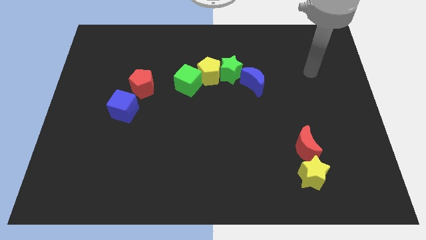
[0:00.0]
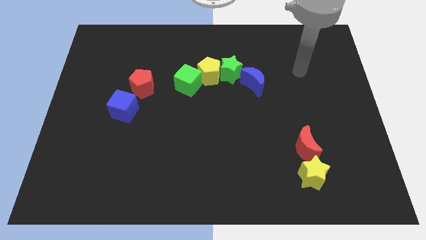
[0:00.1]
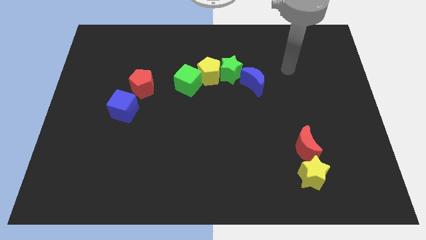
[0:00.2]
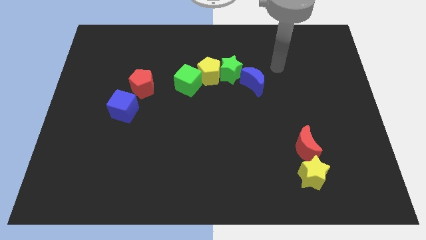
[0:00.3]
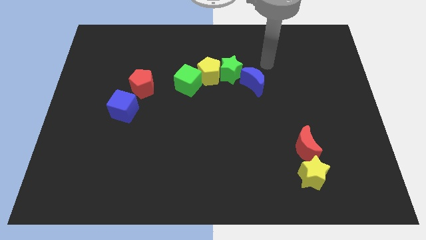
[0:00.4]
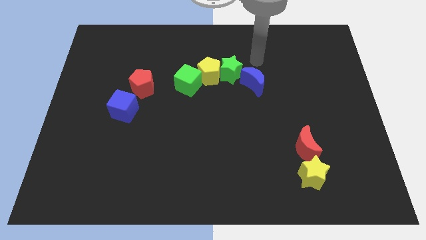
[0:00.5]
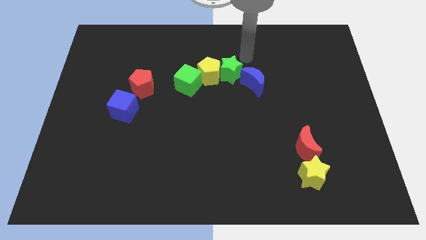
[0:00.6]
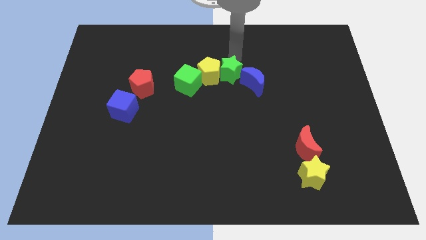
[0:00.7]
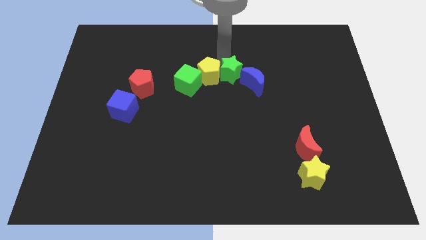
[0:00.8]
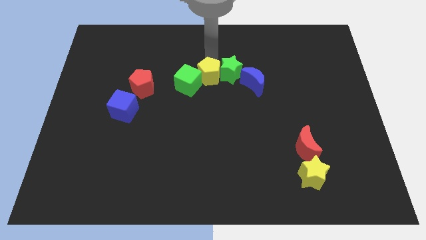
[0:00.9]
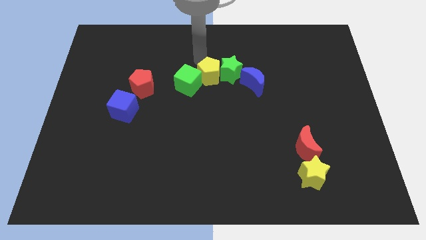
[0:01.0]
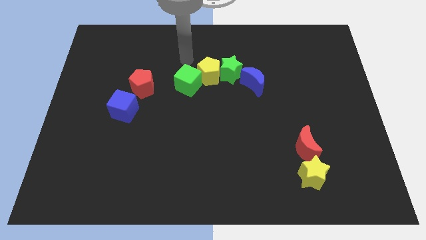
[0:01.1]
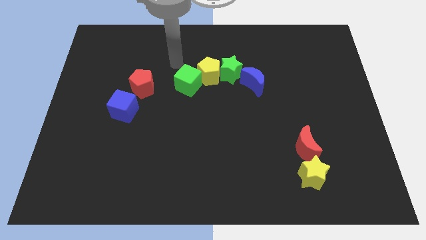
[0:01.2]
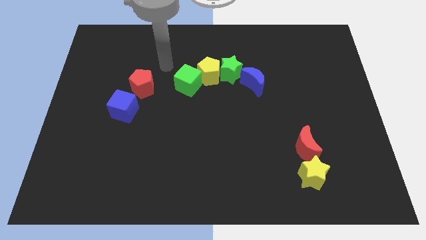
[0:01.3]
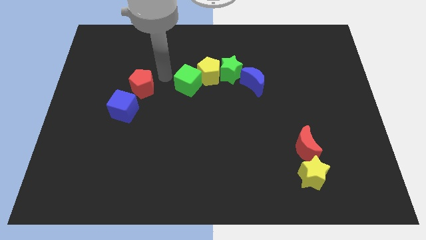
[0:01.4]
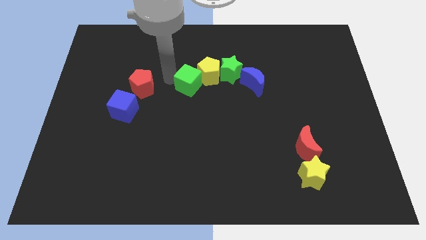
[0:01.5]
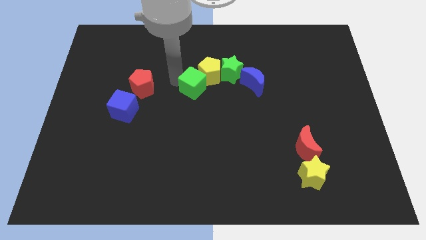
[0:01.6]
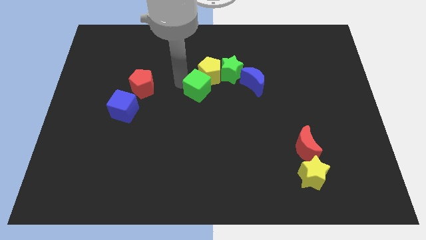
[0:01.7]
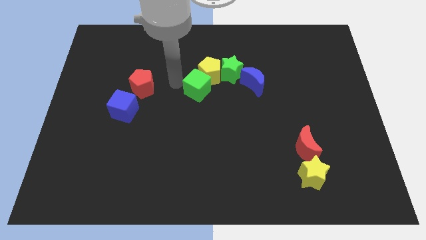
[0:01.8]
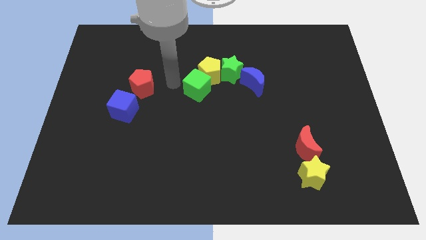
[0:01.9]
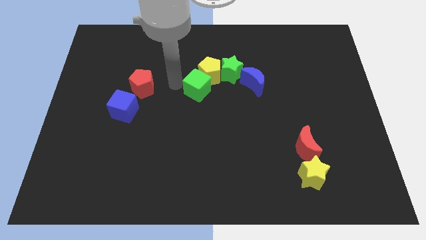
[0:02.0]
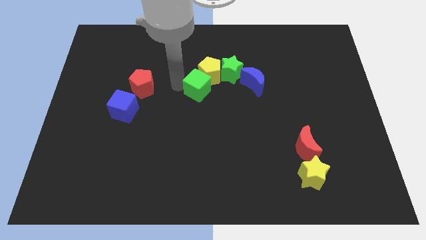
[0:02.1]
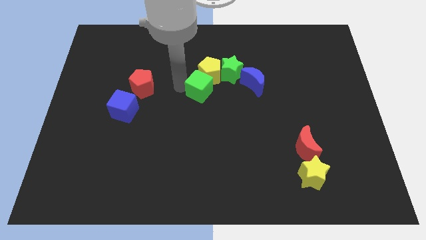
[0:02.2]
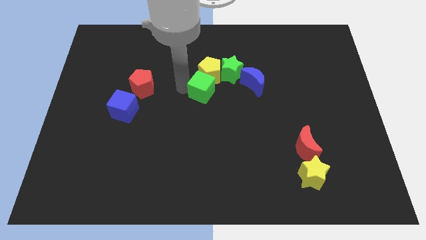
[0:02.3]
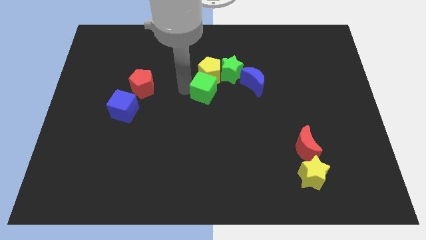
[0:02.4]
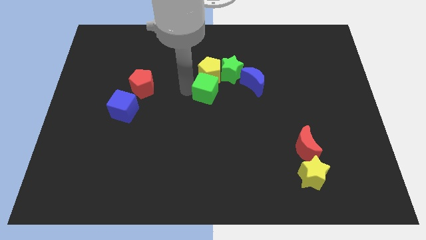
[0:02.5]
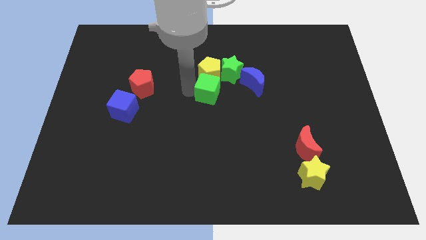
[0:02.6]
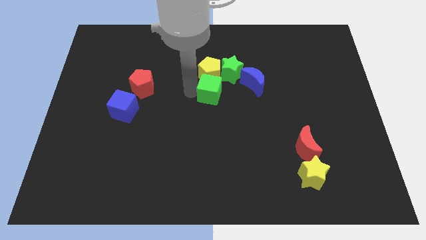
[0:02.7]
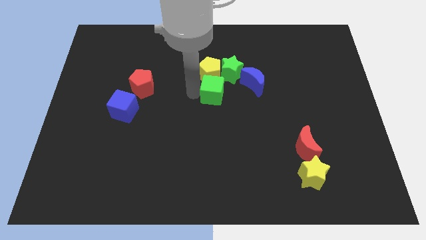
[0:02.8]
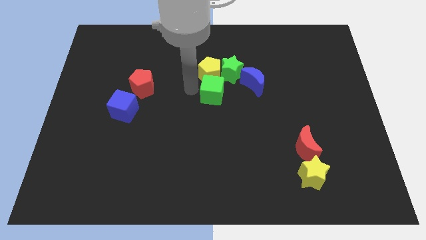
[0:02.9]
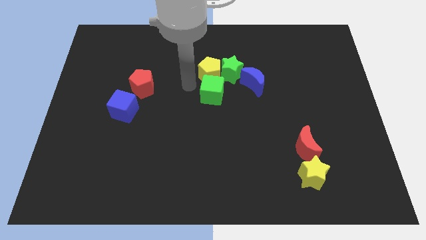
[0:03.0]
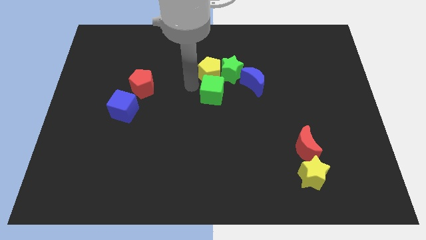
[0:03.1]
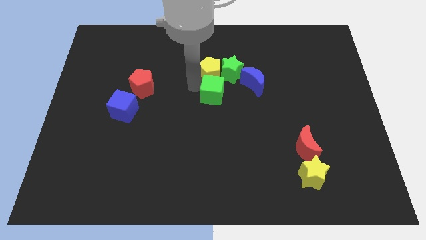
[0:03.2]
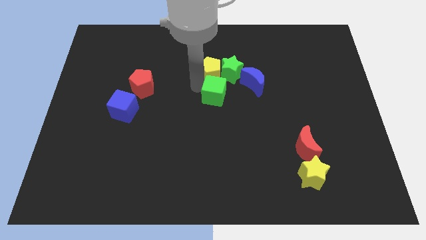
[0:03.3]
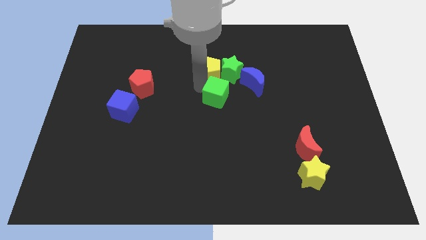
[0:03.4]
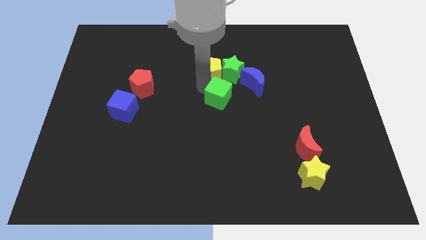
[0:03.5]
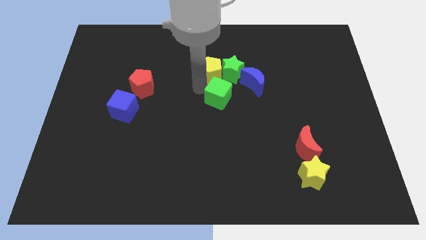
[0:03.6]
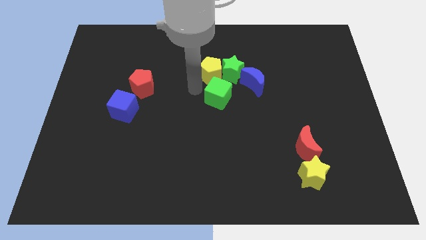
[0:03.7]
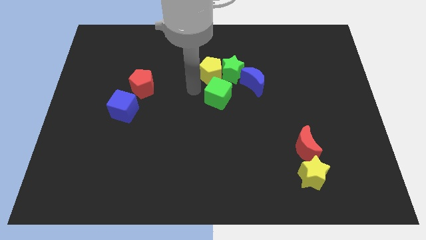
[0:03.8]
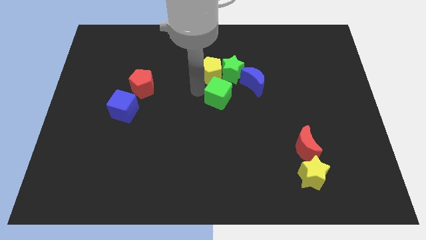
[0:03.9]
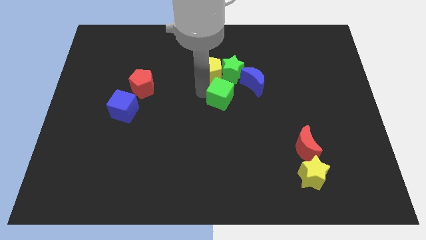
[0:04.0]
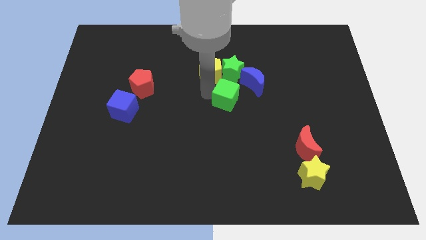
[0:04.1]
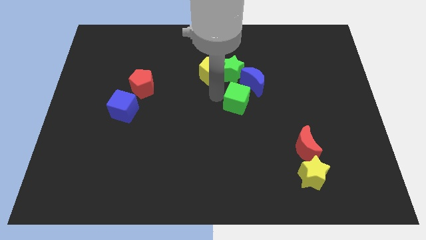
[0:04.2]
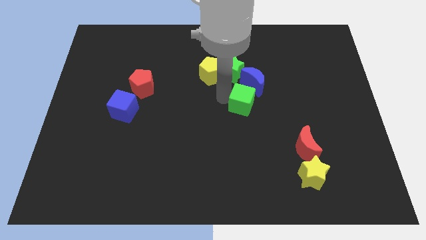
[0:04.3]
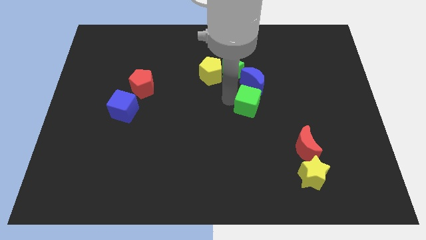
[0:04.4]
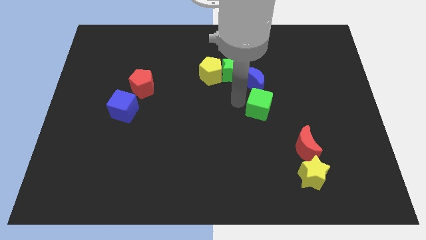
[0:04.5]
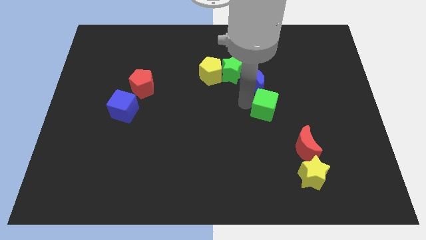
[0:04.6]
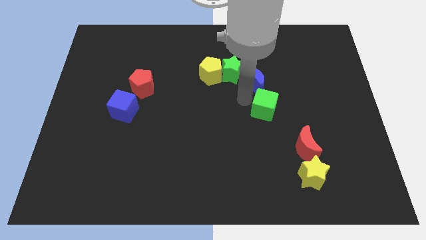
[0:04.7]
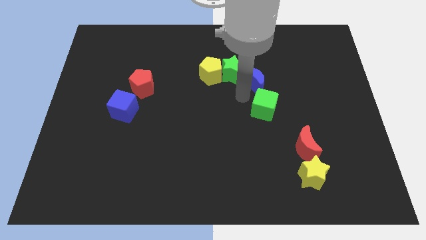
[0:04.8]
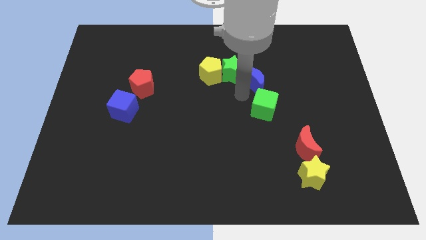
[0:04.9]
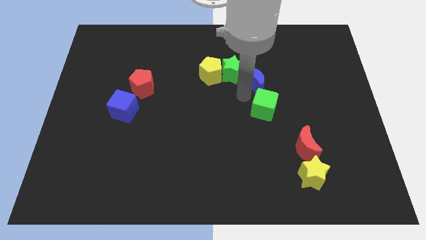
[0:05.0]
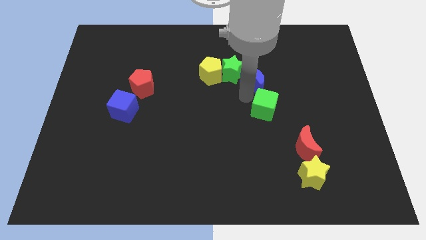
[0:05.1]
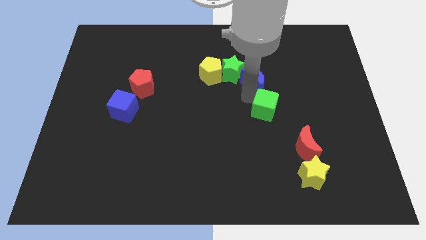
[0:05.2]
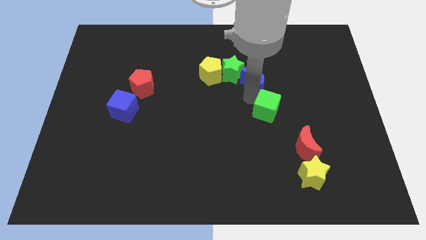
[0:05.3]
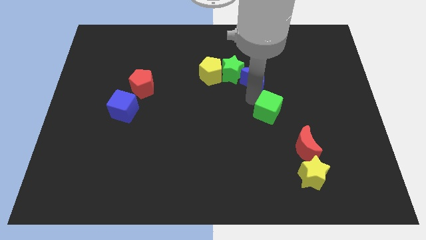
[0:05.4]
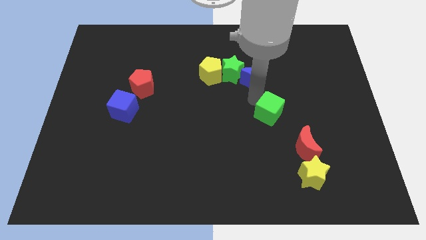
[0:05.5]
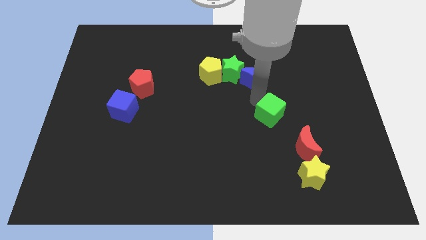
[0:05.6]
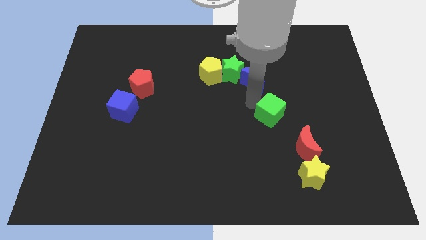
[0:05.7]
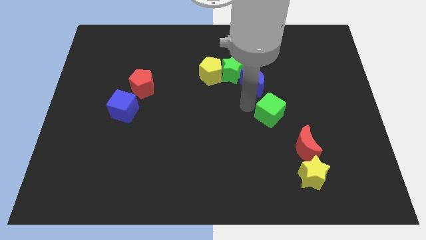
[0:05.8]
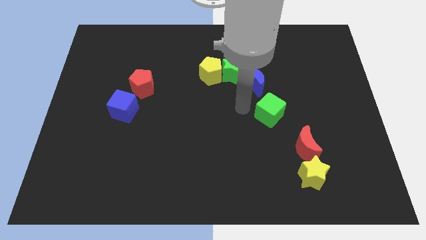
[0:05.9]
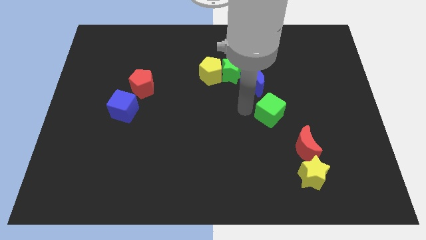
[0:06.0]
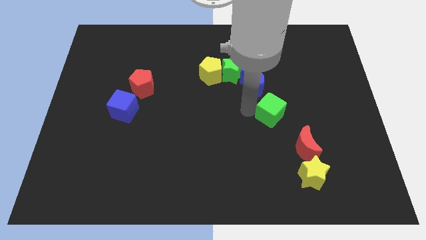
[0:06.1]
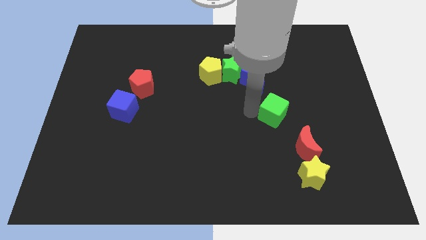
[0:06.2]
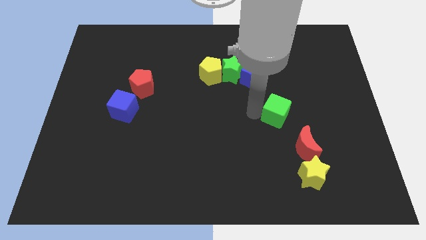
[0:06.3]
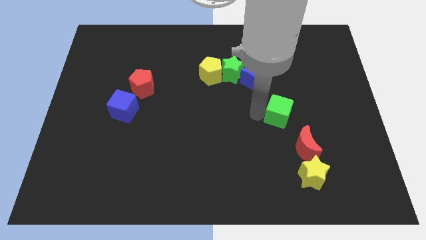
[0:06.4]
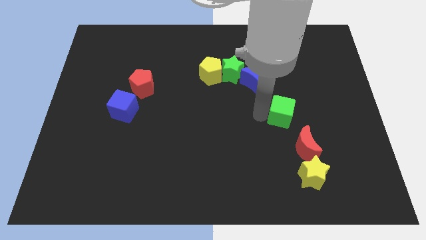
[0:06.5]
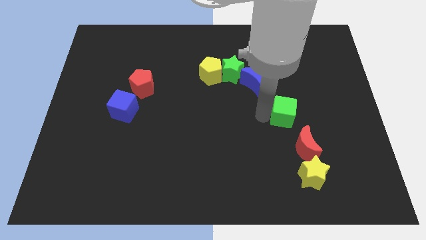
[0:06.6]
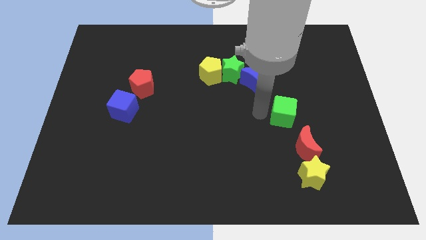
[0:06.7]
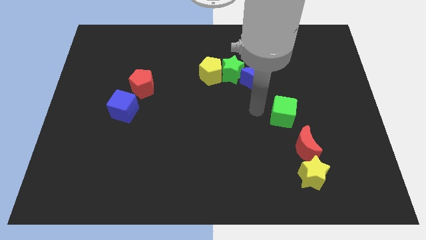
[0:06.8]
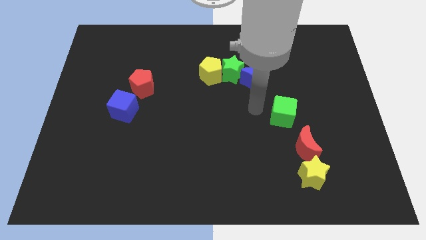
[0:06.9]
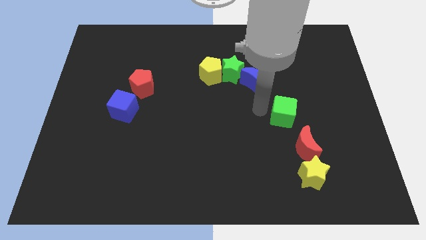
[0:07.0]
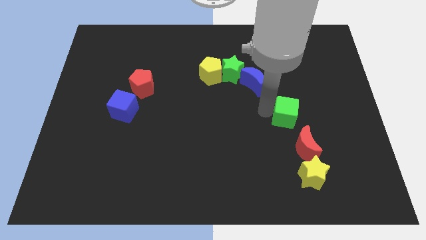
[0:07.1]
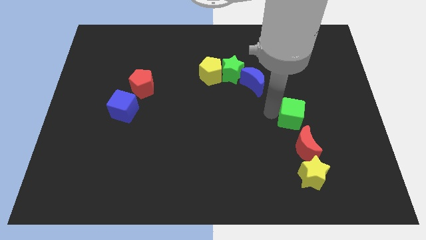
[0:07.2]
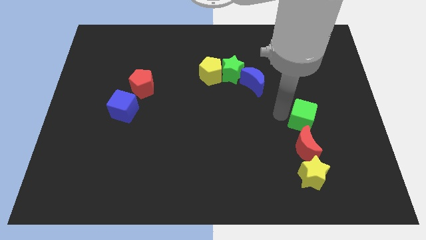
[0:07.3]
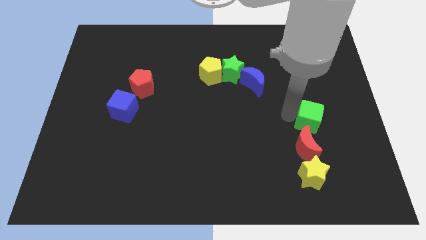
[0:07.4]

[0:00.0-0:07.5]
put the green cube to the top right of the red moon

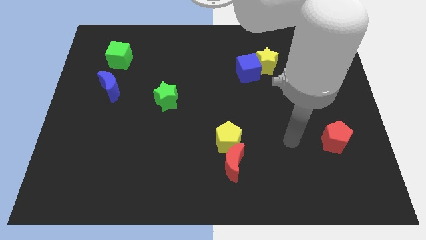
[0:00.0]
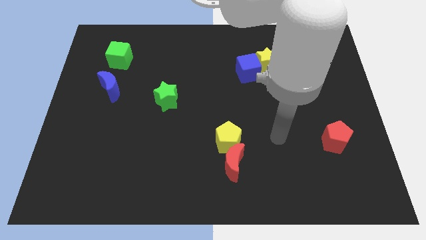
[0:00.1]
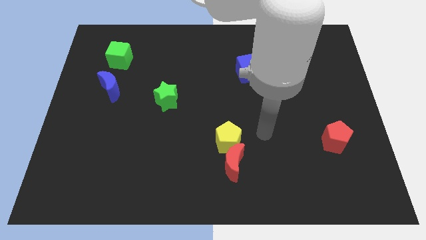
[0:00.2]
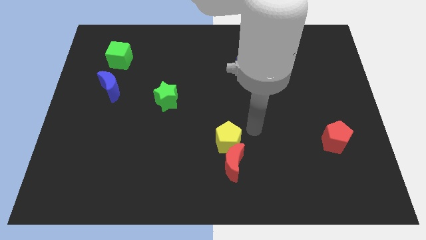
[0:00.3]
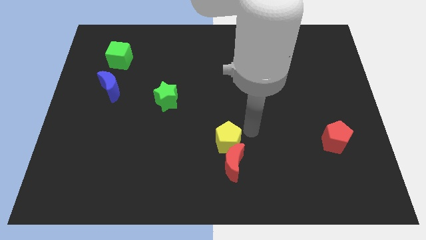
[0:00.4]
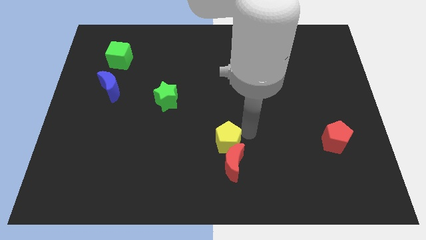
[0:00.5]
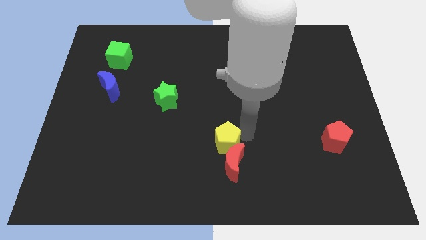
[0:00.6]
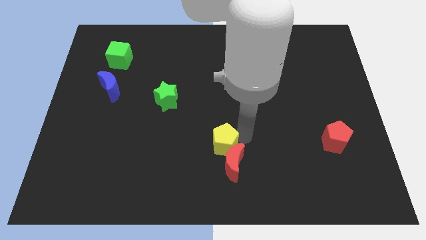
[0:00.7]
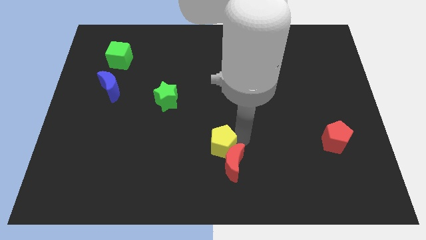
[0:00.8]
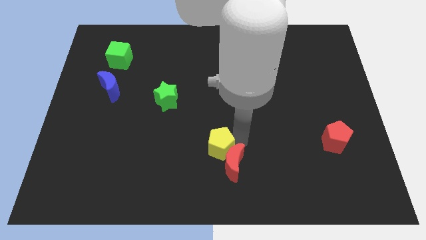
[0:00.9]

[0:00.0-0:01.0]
put the yellow pentagon left of the red moon
